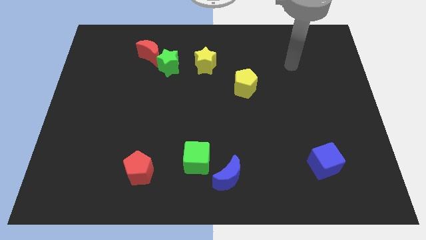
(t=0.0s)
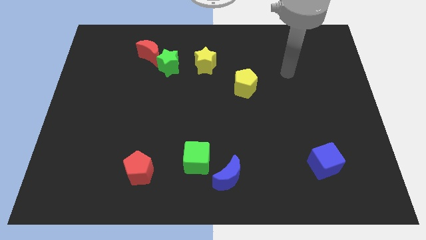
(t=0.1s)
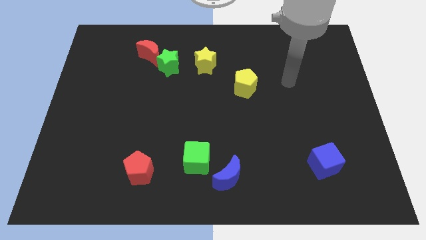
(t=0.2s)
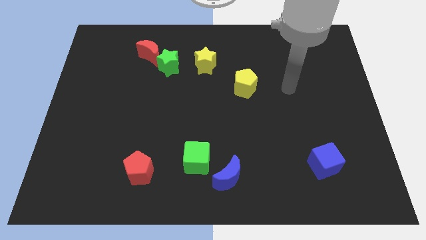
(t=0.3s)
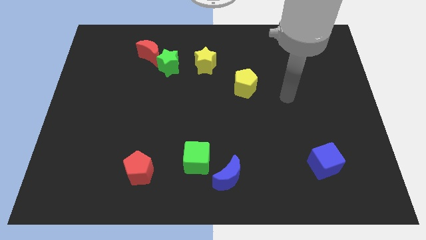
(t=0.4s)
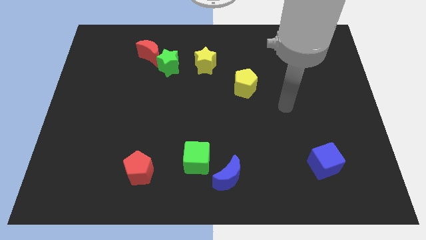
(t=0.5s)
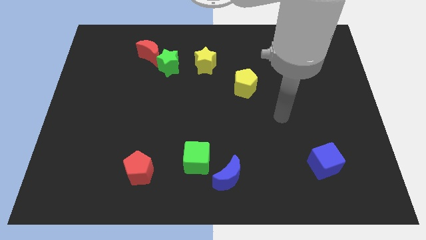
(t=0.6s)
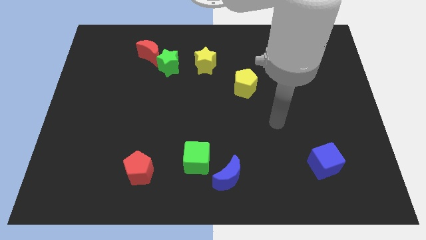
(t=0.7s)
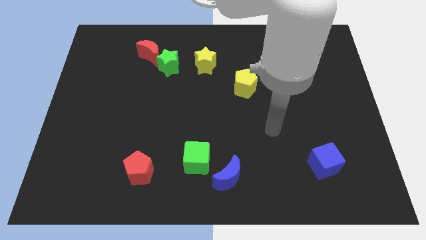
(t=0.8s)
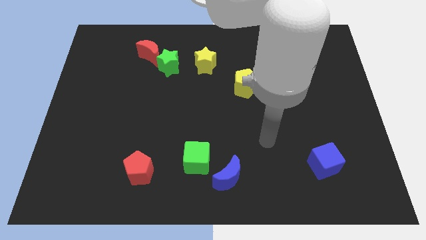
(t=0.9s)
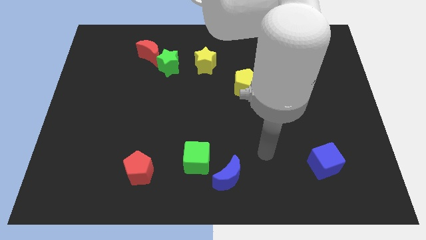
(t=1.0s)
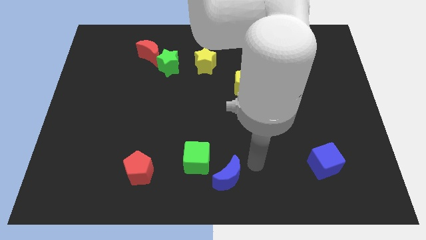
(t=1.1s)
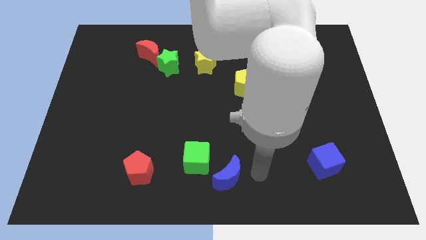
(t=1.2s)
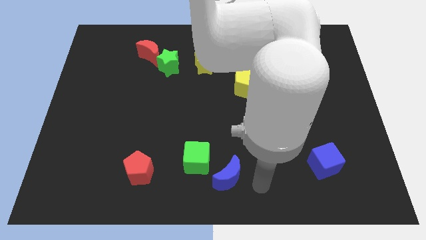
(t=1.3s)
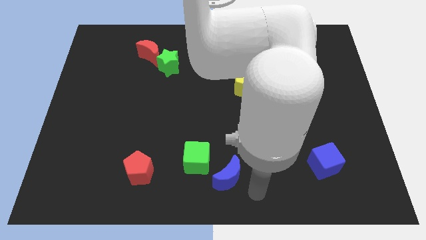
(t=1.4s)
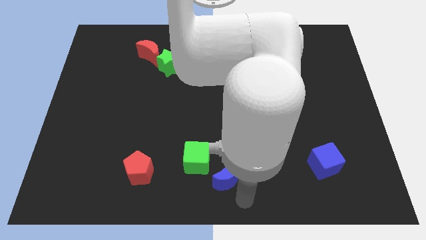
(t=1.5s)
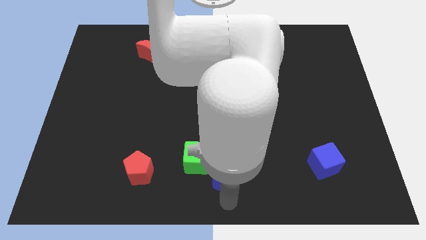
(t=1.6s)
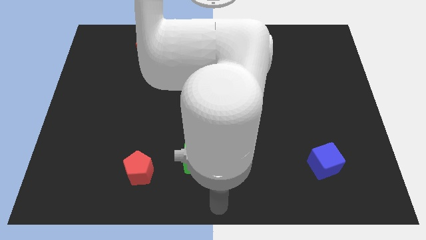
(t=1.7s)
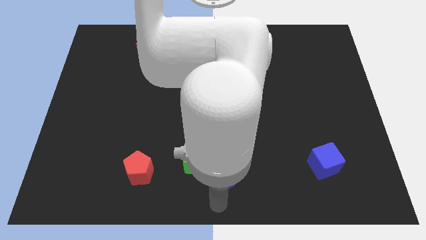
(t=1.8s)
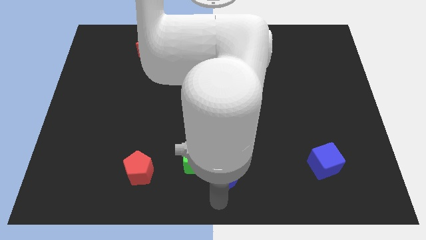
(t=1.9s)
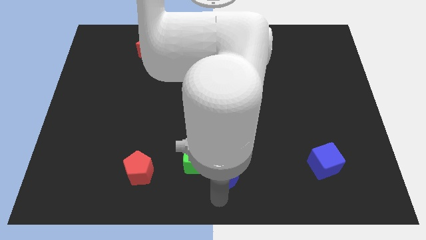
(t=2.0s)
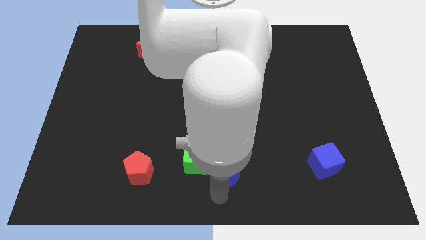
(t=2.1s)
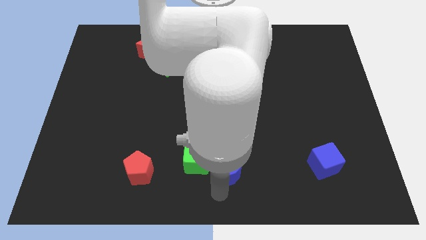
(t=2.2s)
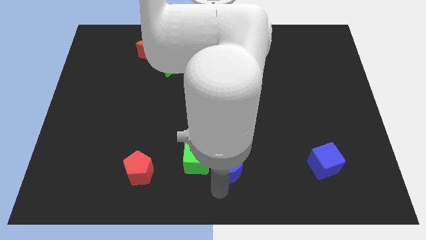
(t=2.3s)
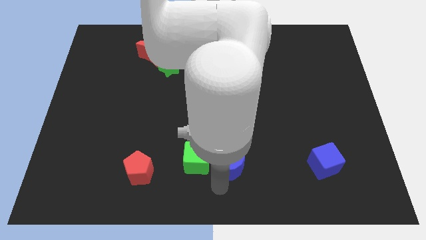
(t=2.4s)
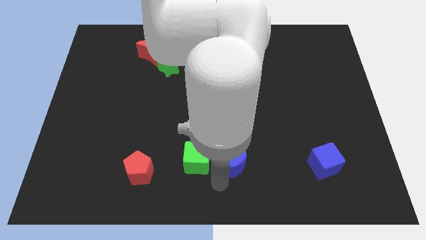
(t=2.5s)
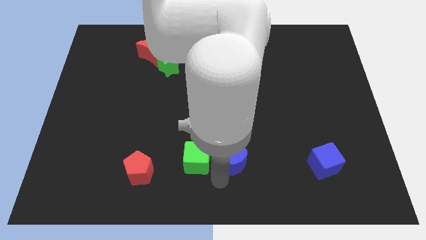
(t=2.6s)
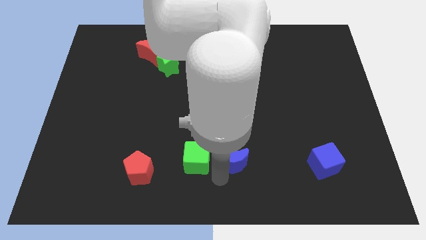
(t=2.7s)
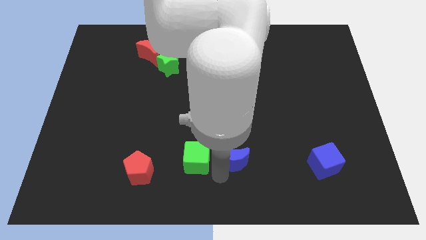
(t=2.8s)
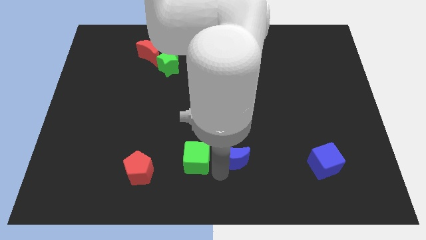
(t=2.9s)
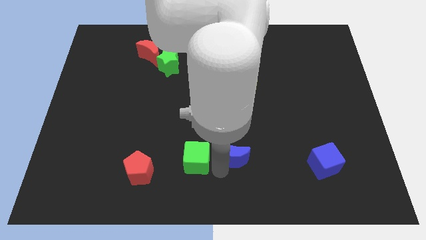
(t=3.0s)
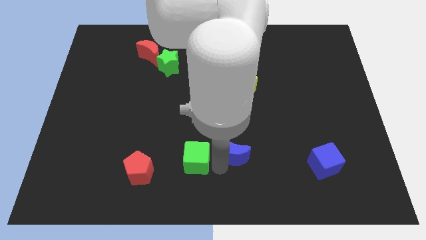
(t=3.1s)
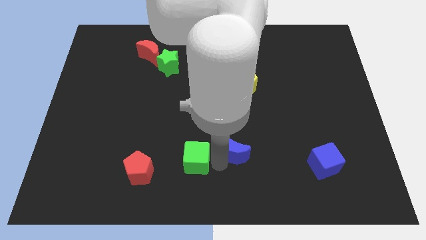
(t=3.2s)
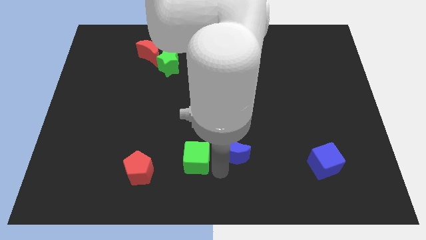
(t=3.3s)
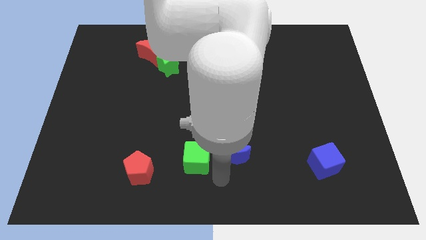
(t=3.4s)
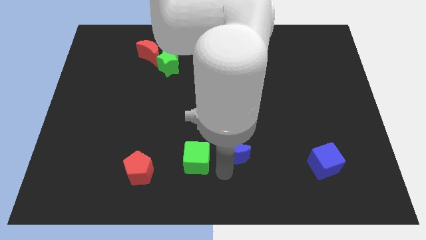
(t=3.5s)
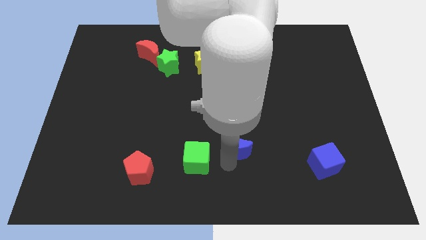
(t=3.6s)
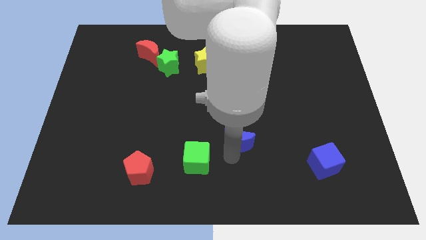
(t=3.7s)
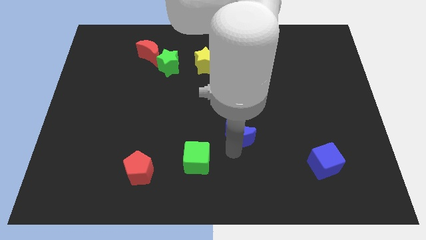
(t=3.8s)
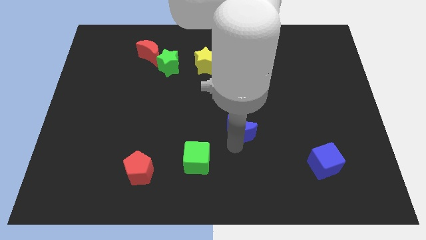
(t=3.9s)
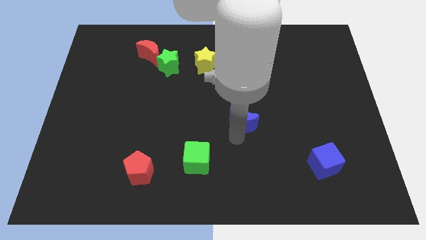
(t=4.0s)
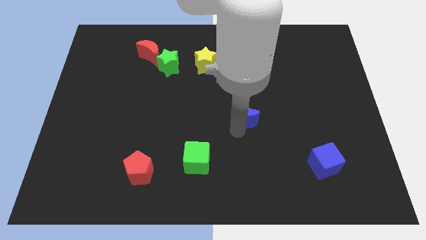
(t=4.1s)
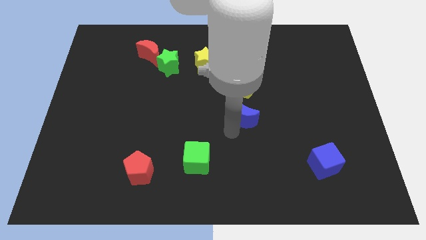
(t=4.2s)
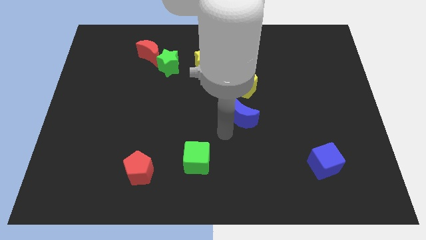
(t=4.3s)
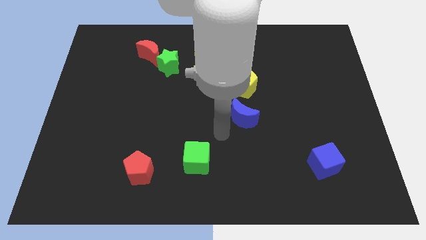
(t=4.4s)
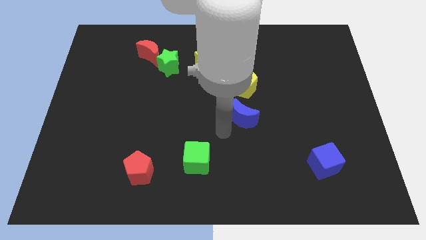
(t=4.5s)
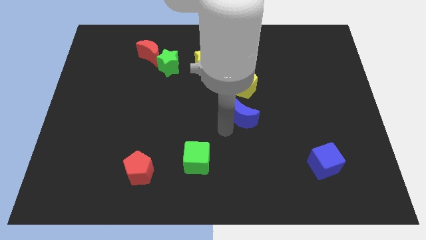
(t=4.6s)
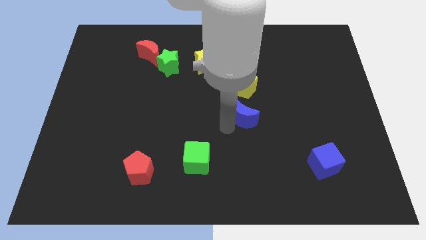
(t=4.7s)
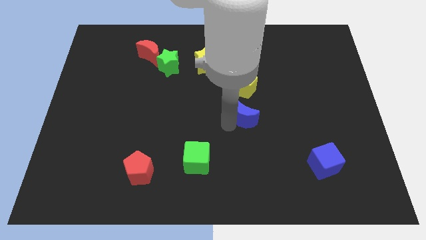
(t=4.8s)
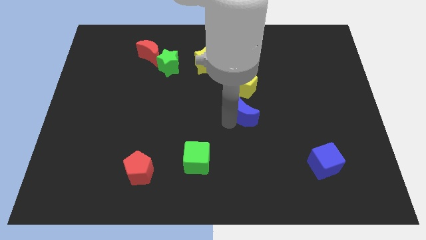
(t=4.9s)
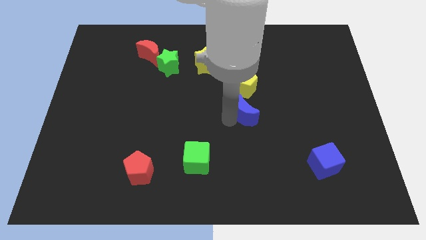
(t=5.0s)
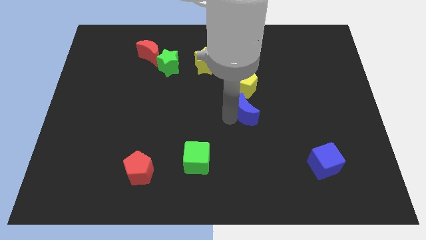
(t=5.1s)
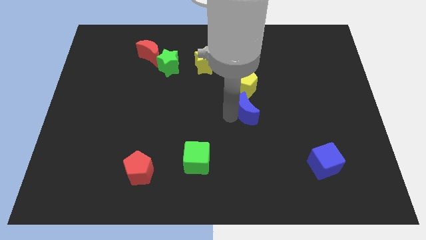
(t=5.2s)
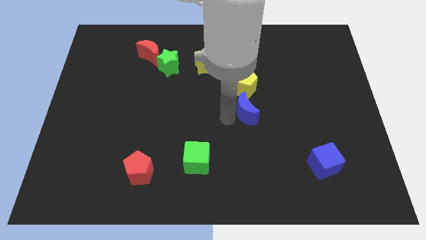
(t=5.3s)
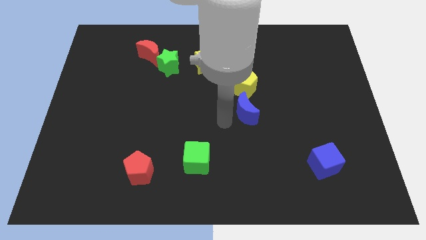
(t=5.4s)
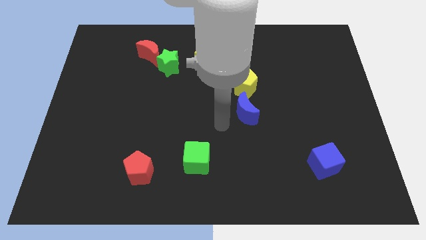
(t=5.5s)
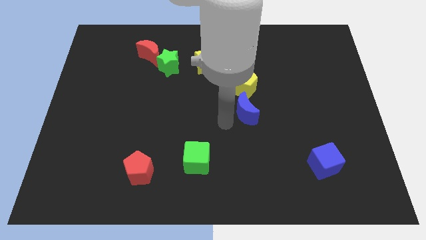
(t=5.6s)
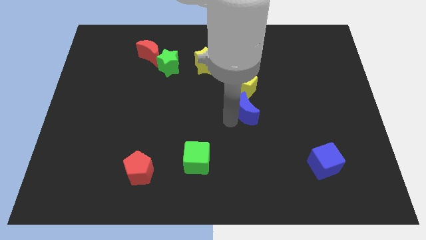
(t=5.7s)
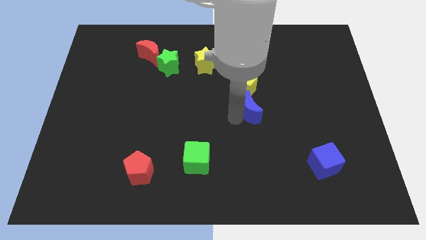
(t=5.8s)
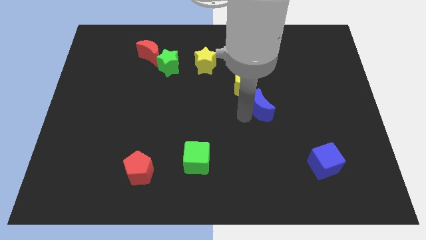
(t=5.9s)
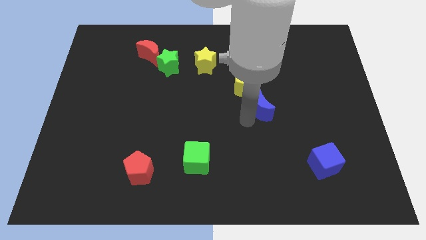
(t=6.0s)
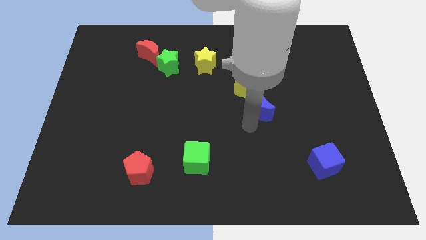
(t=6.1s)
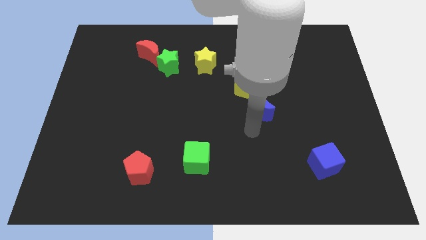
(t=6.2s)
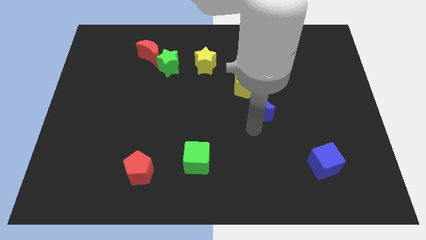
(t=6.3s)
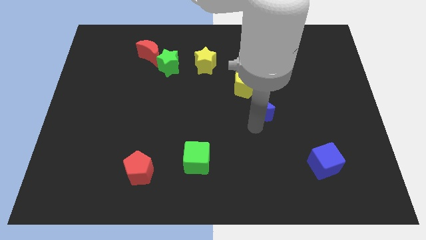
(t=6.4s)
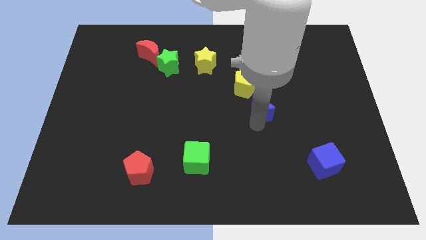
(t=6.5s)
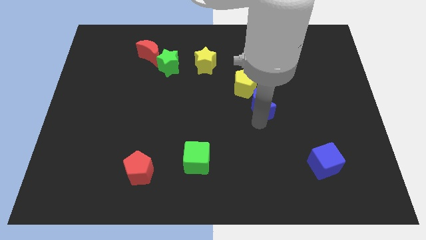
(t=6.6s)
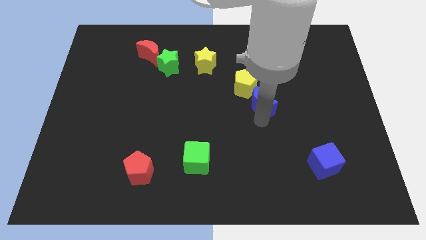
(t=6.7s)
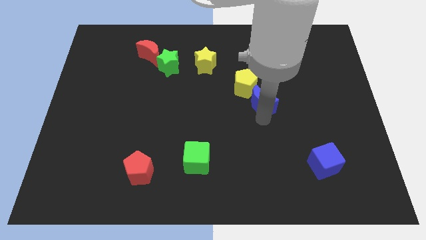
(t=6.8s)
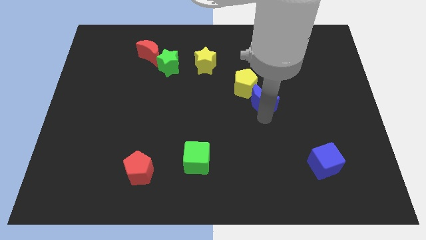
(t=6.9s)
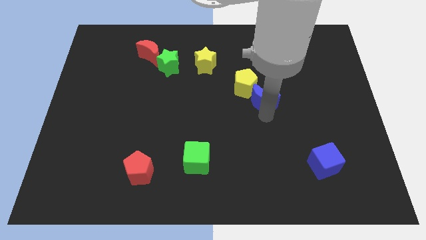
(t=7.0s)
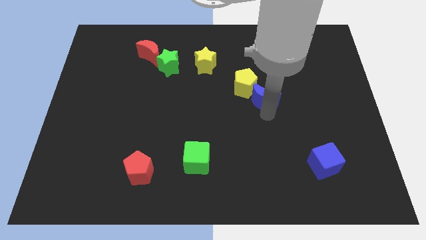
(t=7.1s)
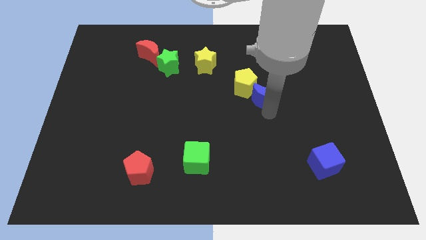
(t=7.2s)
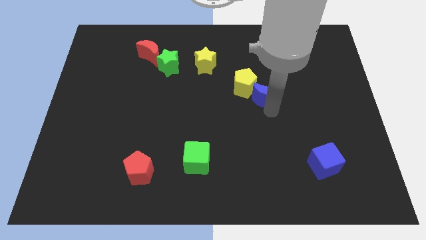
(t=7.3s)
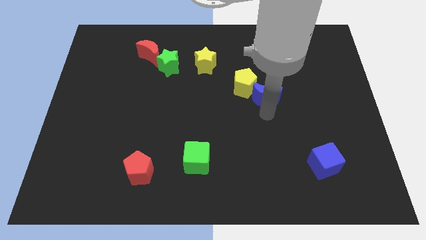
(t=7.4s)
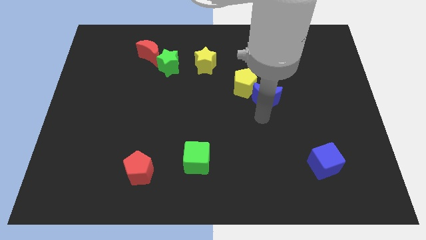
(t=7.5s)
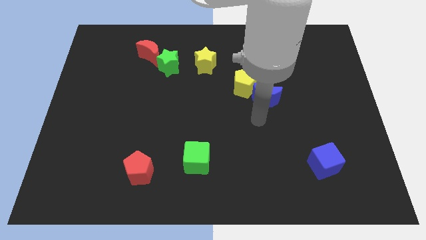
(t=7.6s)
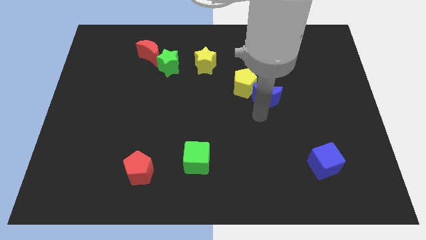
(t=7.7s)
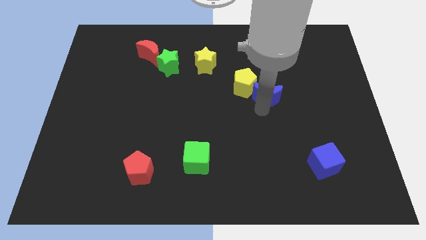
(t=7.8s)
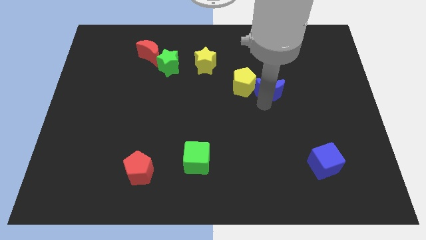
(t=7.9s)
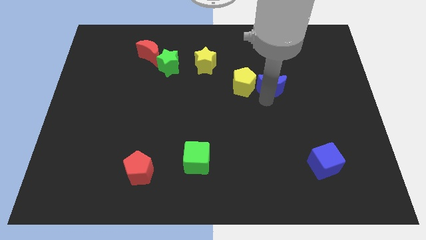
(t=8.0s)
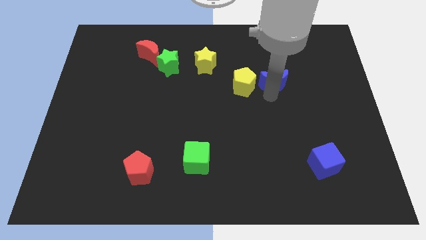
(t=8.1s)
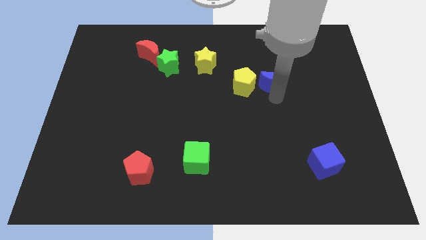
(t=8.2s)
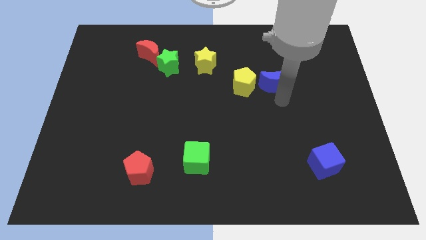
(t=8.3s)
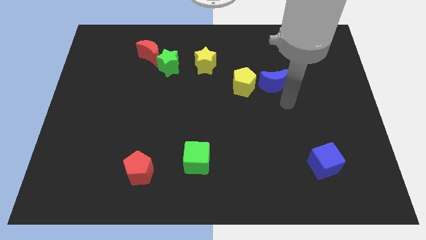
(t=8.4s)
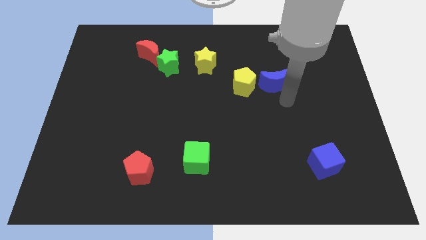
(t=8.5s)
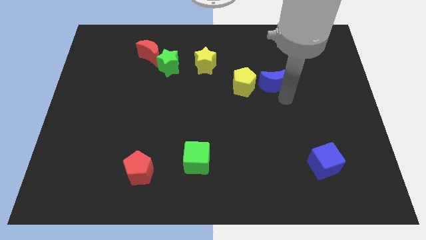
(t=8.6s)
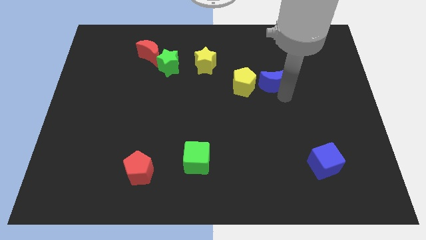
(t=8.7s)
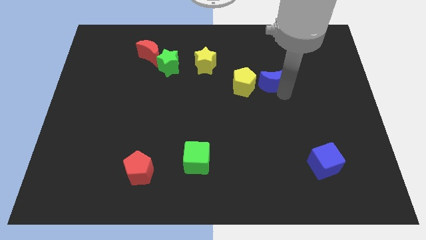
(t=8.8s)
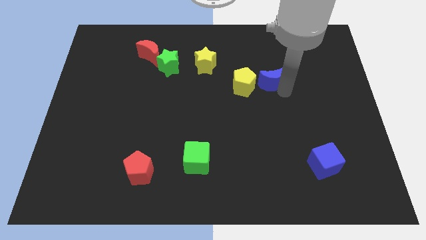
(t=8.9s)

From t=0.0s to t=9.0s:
push the blue moon to the top right of the yellow pentagon
